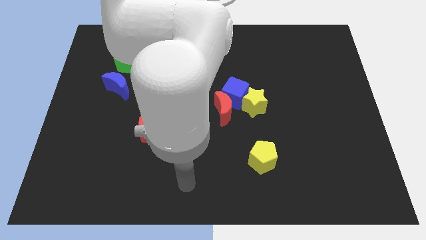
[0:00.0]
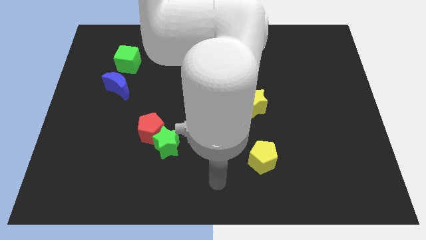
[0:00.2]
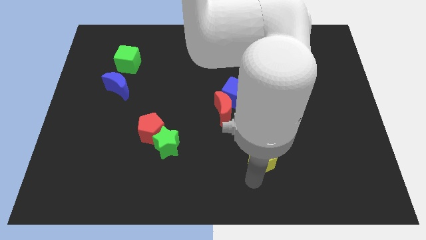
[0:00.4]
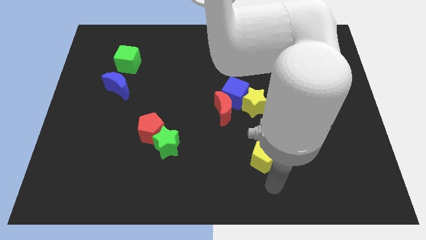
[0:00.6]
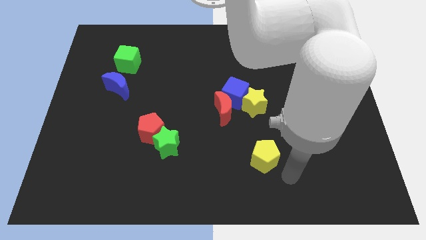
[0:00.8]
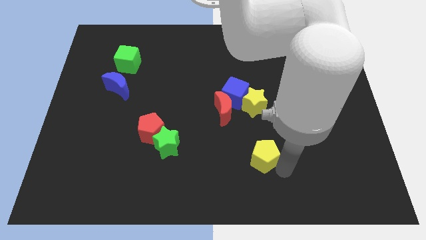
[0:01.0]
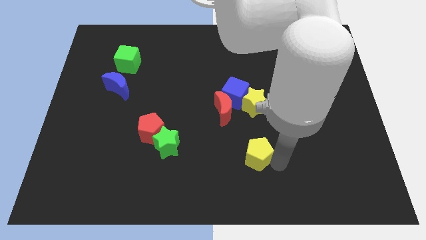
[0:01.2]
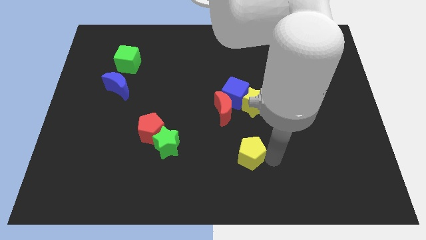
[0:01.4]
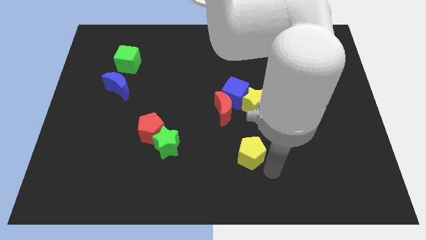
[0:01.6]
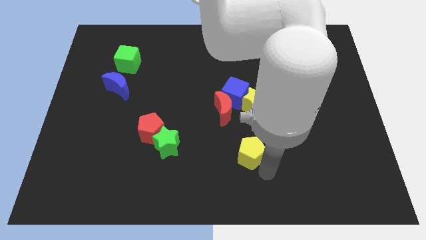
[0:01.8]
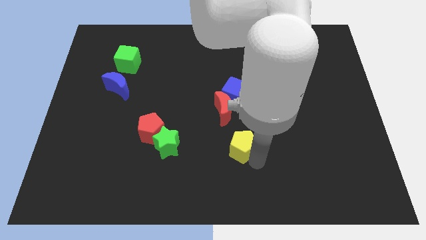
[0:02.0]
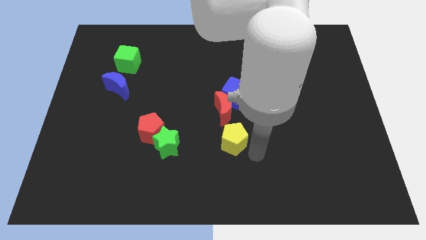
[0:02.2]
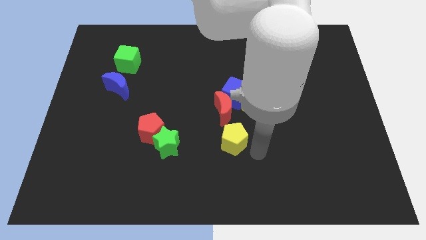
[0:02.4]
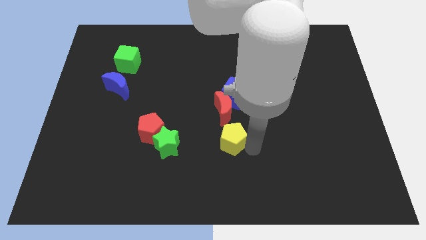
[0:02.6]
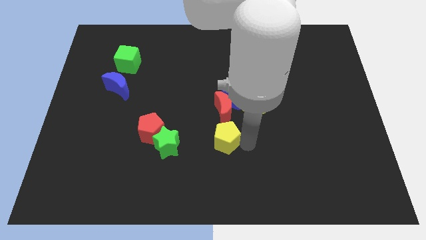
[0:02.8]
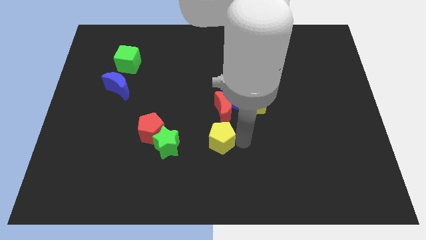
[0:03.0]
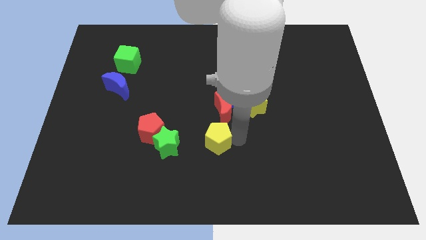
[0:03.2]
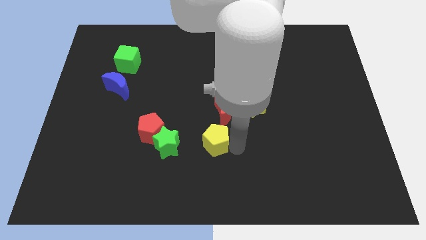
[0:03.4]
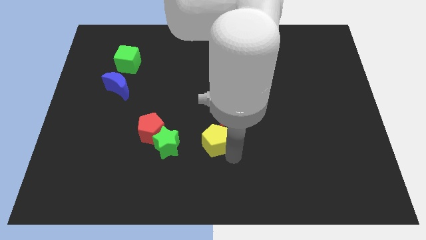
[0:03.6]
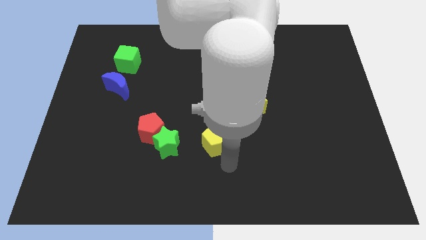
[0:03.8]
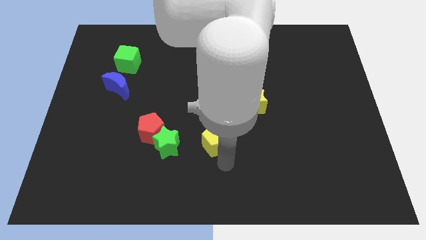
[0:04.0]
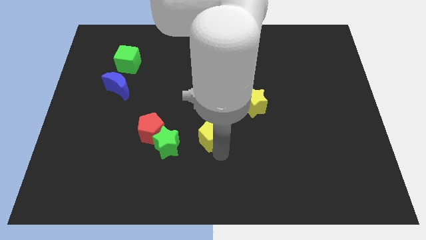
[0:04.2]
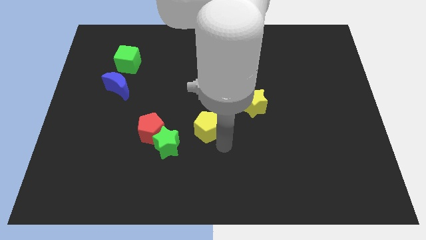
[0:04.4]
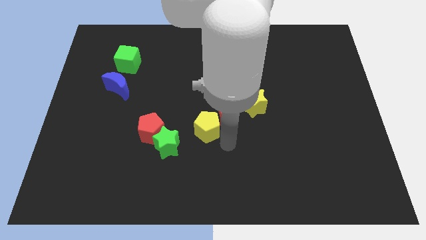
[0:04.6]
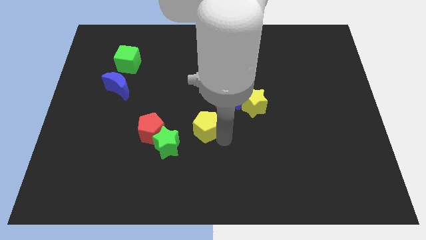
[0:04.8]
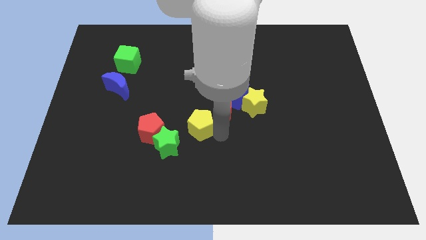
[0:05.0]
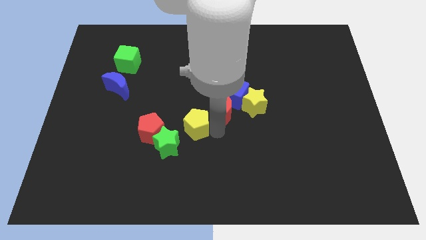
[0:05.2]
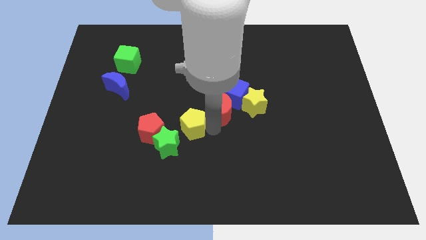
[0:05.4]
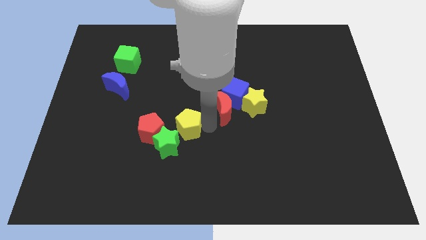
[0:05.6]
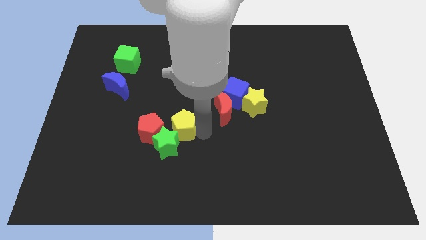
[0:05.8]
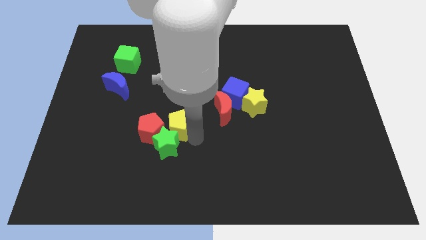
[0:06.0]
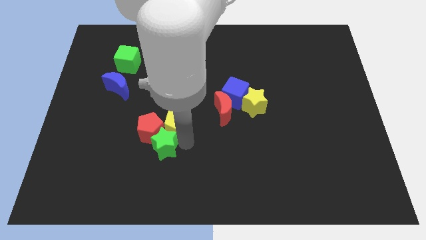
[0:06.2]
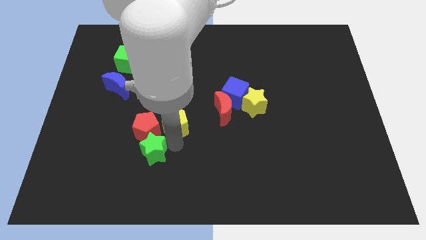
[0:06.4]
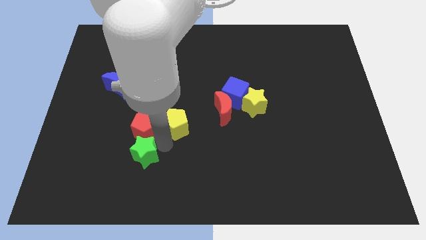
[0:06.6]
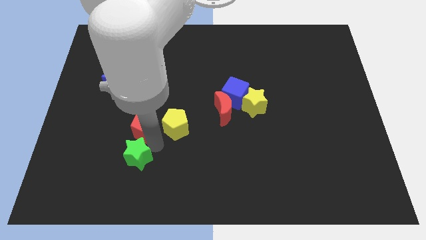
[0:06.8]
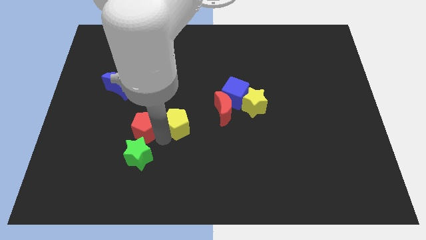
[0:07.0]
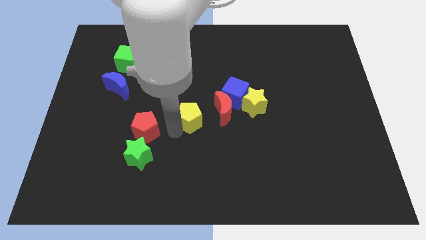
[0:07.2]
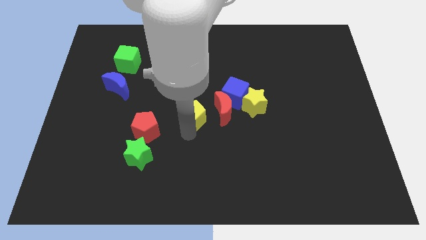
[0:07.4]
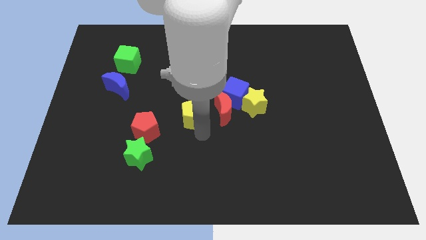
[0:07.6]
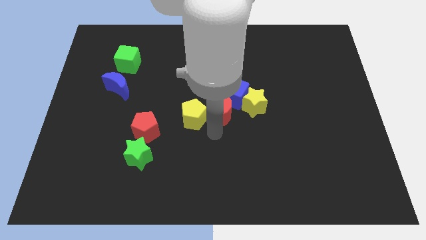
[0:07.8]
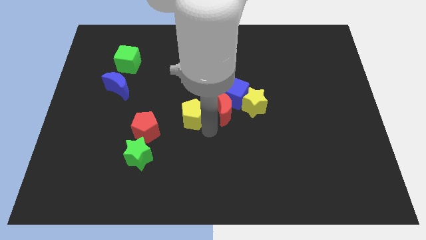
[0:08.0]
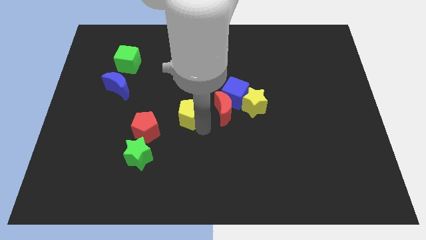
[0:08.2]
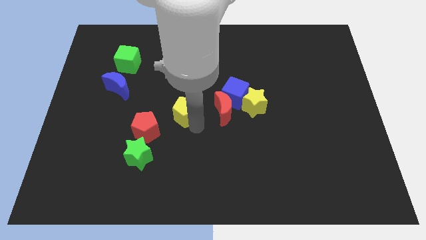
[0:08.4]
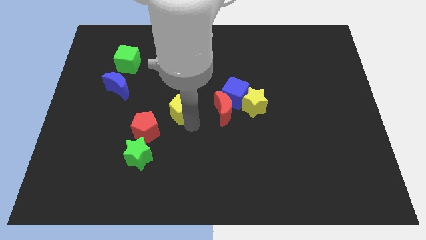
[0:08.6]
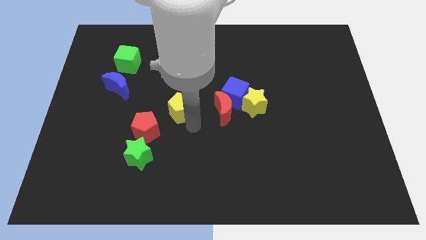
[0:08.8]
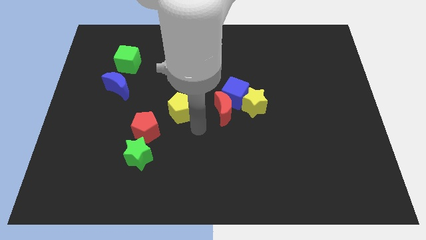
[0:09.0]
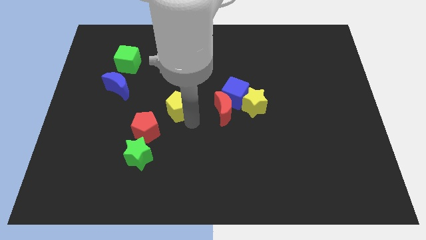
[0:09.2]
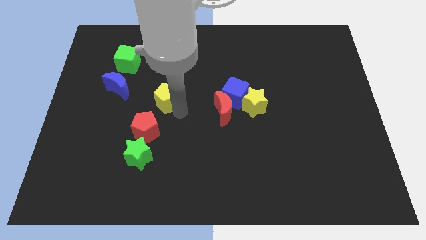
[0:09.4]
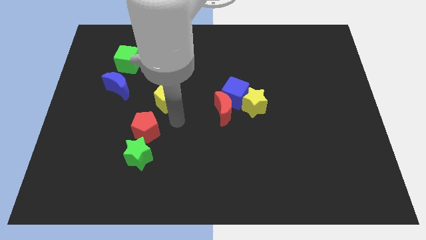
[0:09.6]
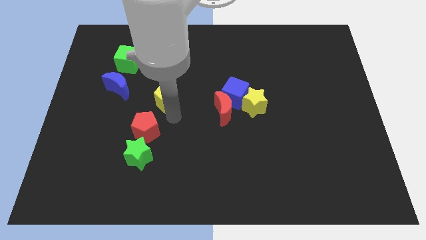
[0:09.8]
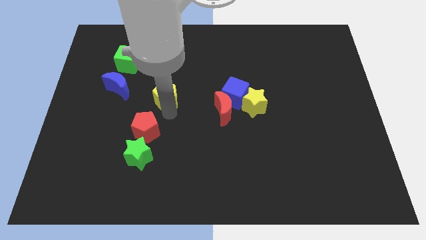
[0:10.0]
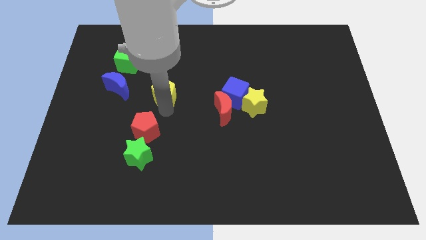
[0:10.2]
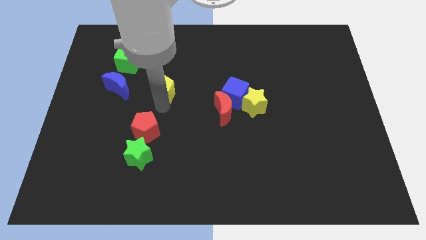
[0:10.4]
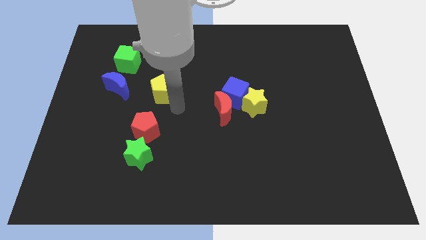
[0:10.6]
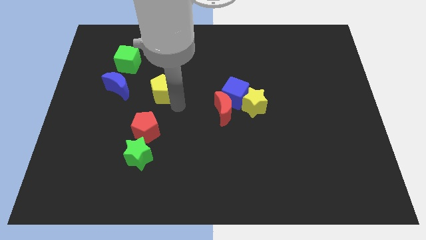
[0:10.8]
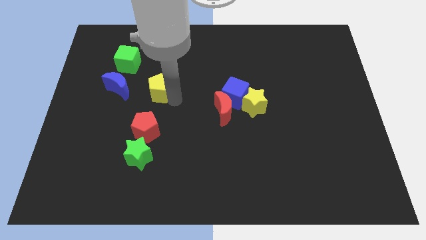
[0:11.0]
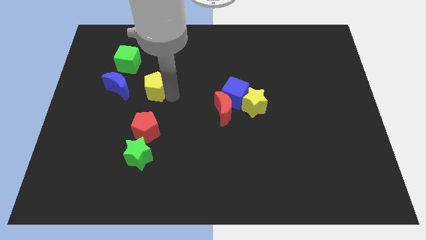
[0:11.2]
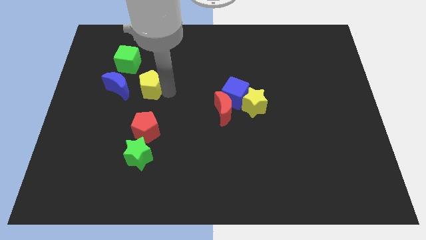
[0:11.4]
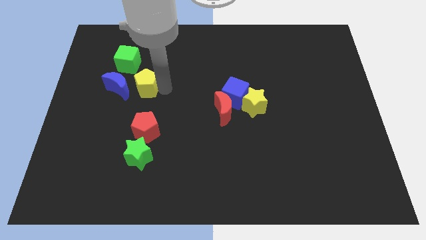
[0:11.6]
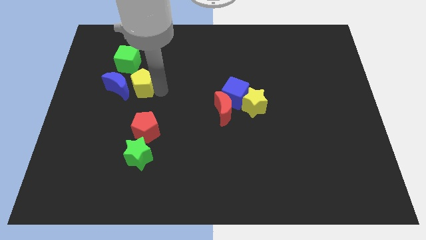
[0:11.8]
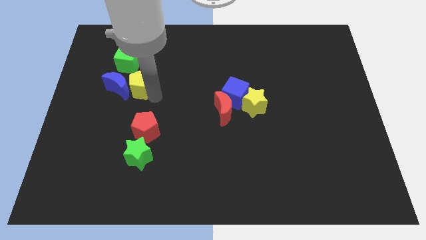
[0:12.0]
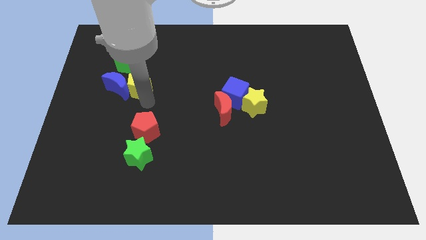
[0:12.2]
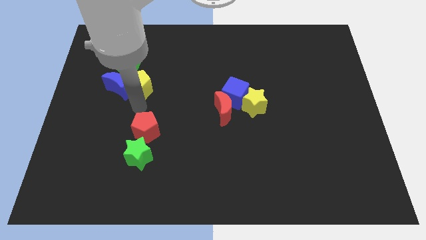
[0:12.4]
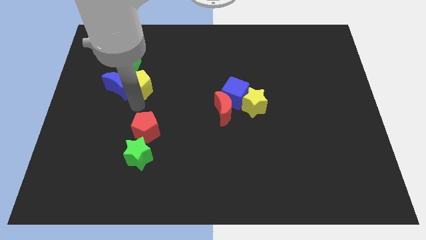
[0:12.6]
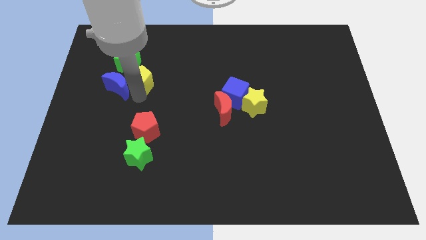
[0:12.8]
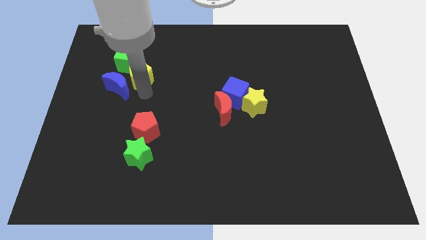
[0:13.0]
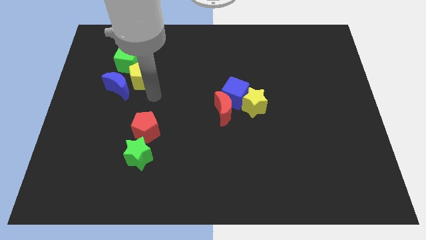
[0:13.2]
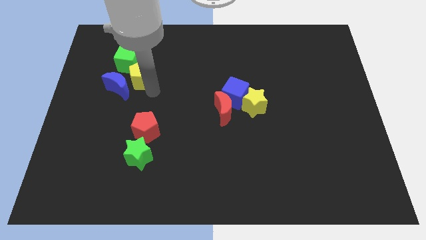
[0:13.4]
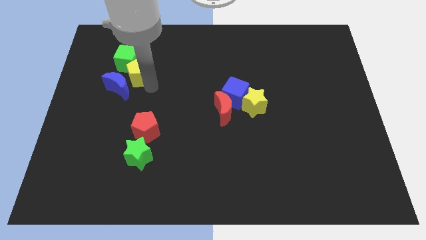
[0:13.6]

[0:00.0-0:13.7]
slide the yellow pentagon towards the green cube
